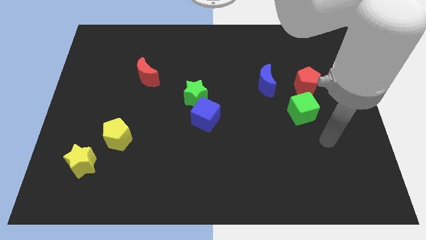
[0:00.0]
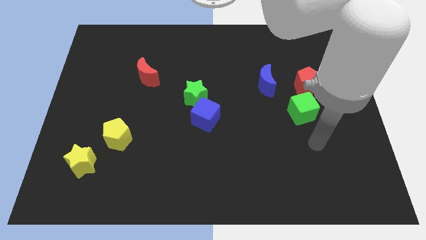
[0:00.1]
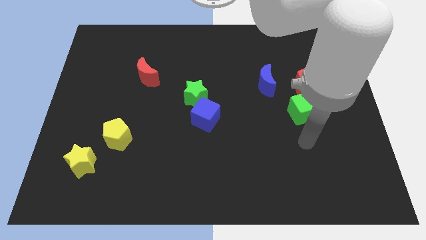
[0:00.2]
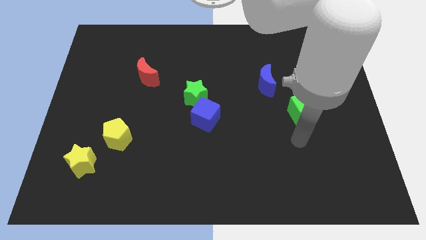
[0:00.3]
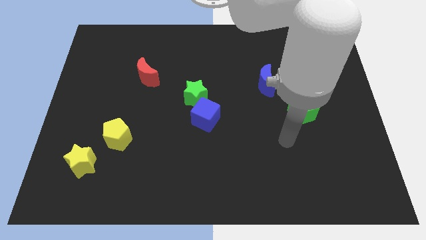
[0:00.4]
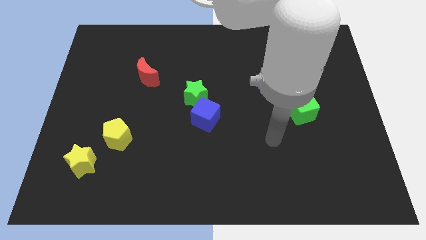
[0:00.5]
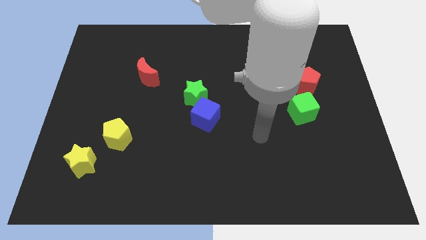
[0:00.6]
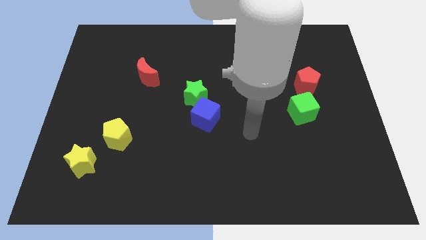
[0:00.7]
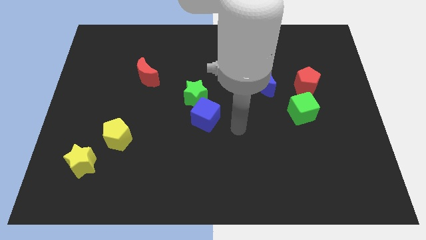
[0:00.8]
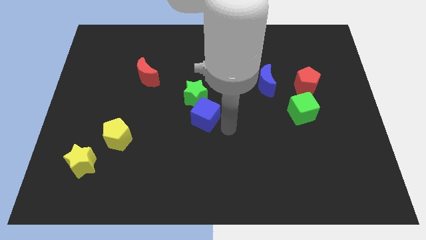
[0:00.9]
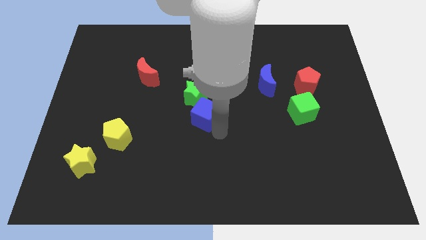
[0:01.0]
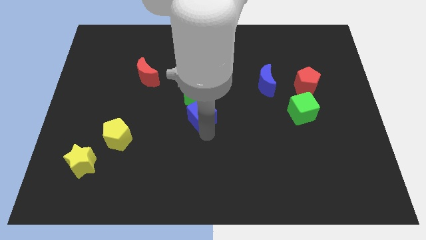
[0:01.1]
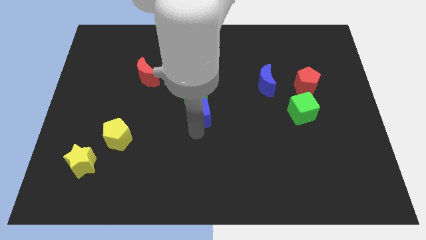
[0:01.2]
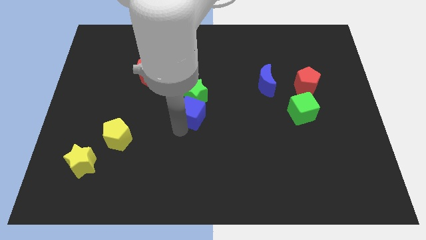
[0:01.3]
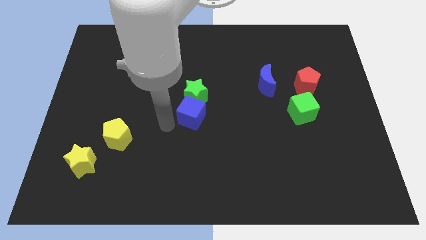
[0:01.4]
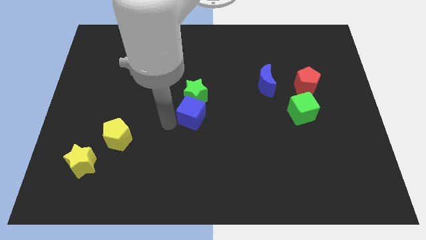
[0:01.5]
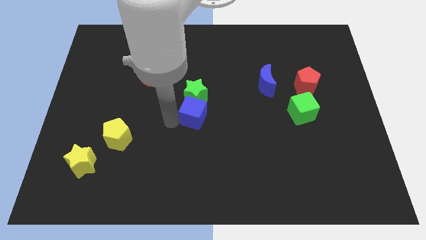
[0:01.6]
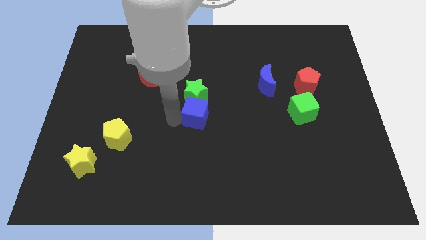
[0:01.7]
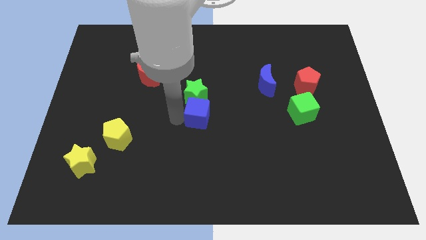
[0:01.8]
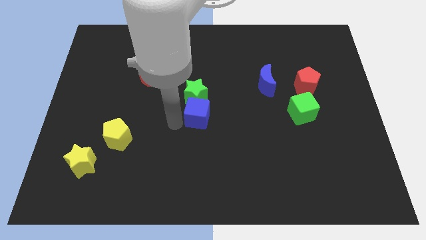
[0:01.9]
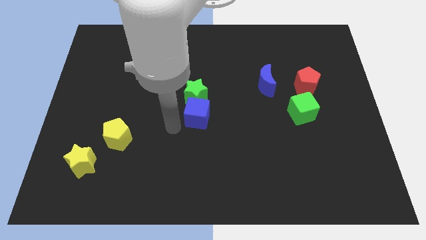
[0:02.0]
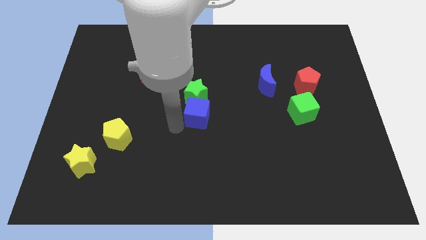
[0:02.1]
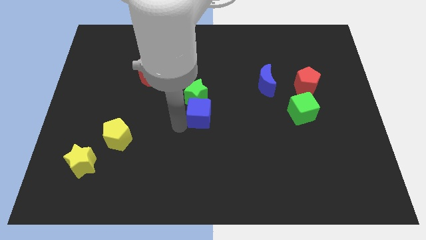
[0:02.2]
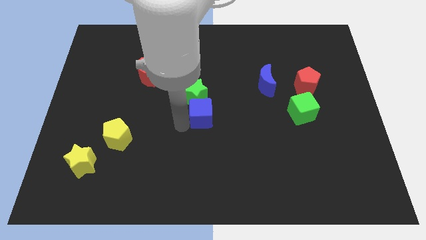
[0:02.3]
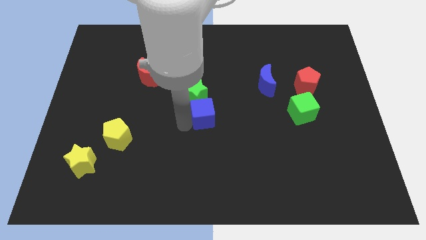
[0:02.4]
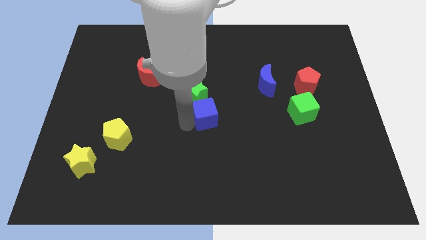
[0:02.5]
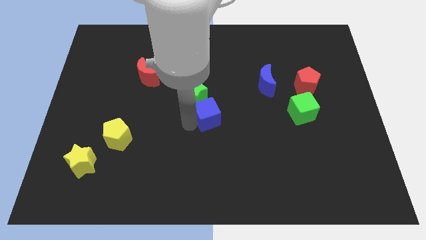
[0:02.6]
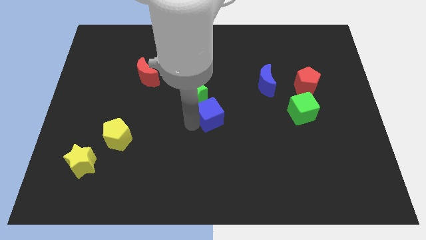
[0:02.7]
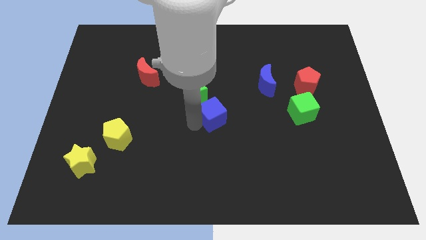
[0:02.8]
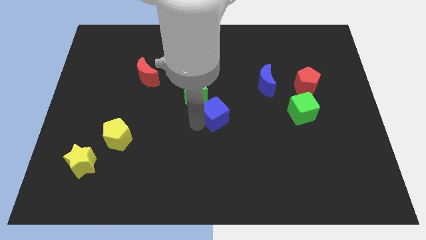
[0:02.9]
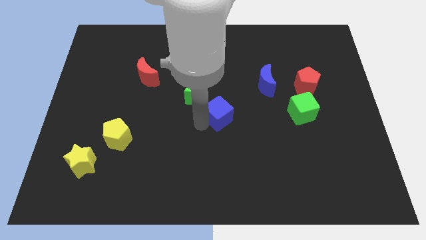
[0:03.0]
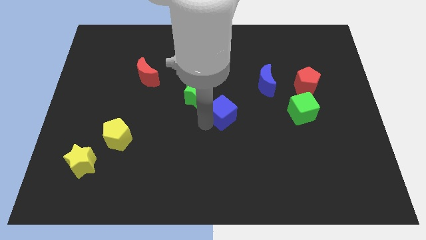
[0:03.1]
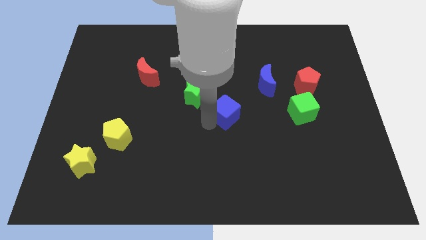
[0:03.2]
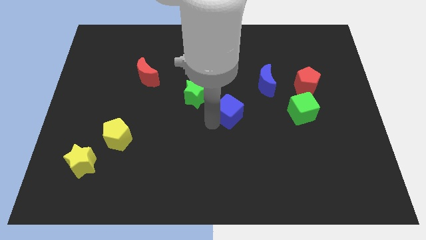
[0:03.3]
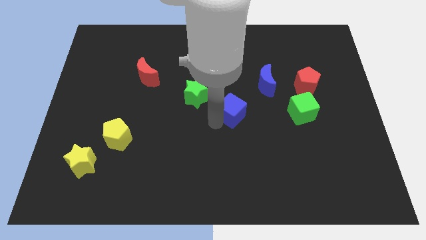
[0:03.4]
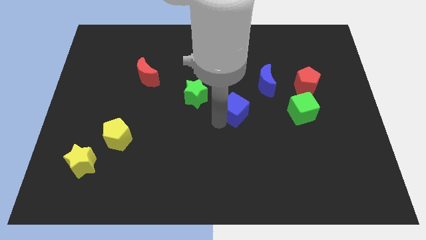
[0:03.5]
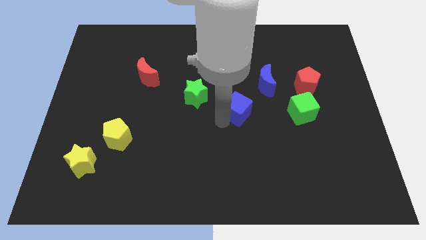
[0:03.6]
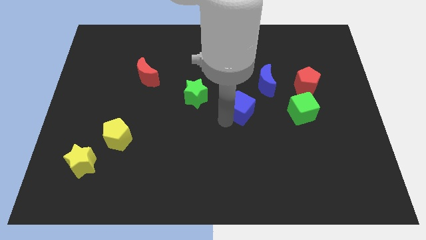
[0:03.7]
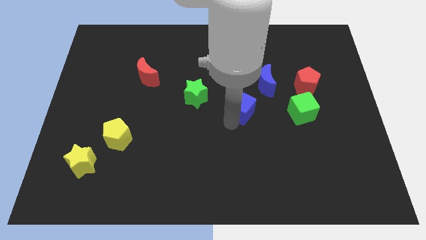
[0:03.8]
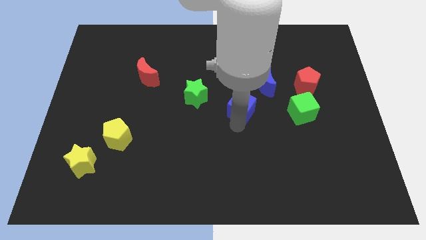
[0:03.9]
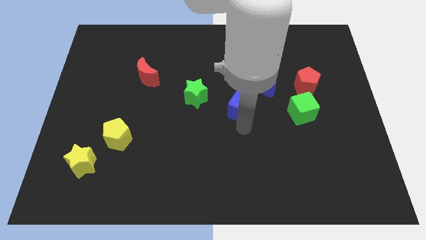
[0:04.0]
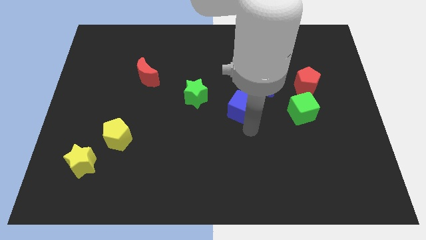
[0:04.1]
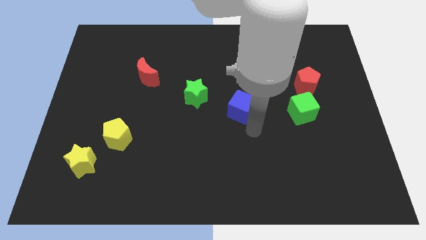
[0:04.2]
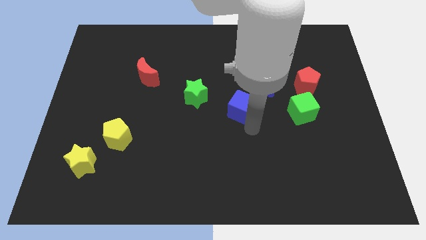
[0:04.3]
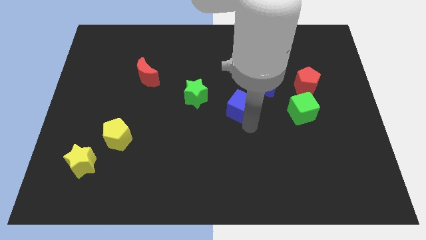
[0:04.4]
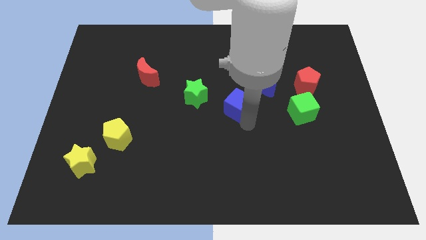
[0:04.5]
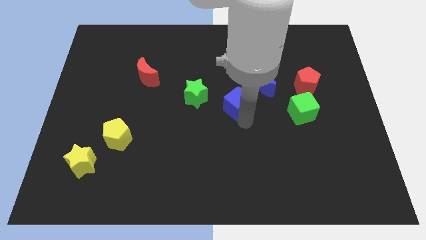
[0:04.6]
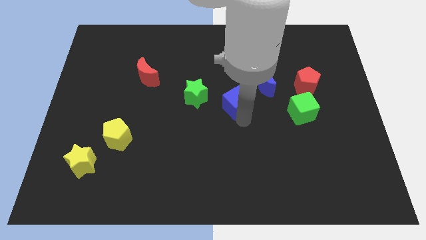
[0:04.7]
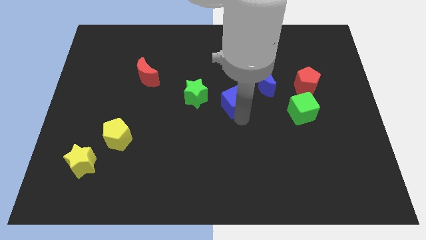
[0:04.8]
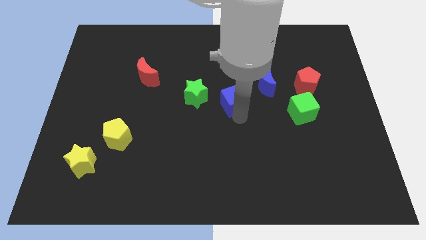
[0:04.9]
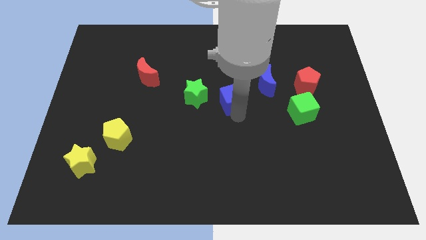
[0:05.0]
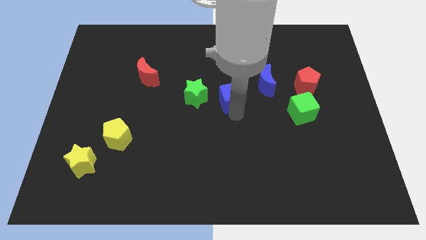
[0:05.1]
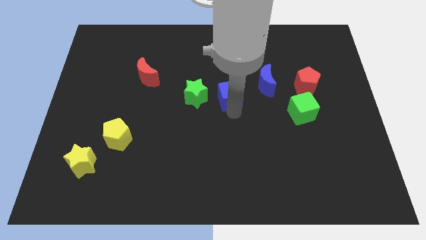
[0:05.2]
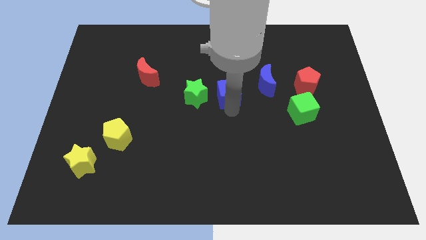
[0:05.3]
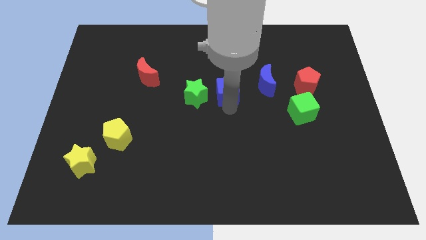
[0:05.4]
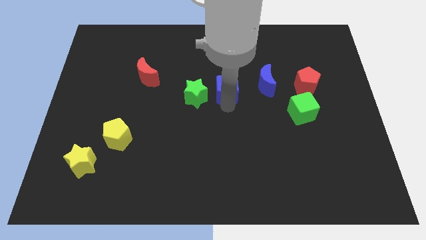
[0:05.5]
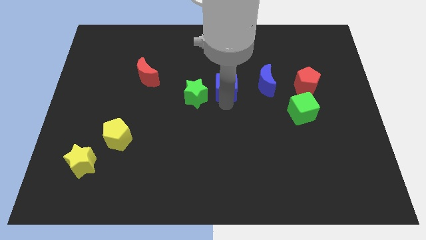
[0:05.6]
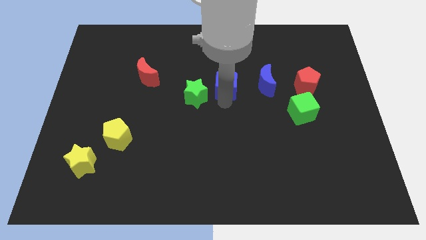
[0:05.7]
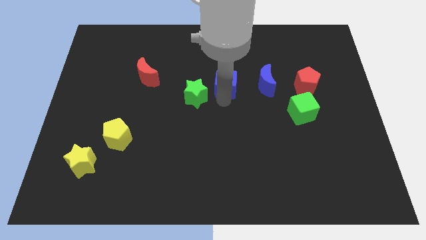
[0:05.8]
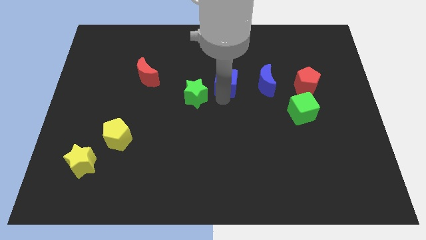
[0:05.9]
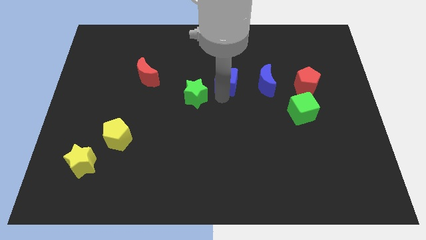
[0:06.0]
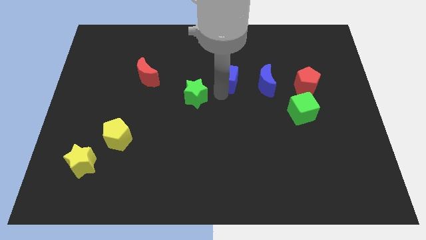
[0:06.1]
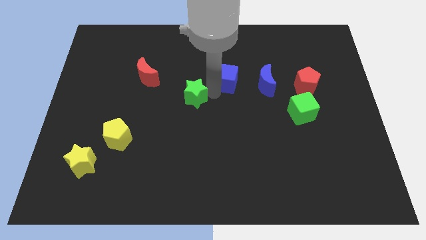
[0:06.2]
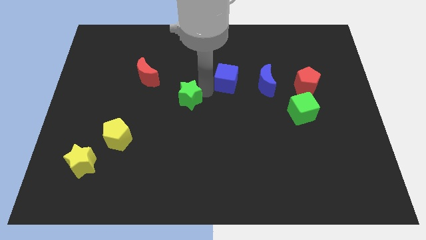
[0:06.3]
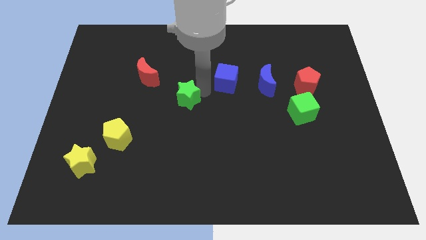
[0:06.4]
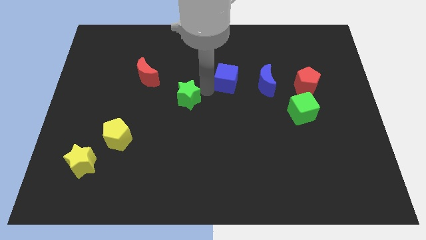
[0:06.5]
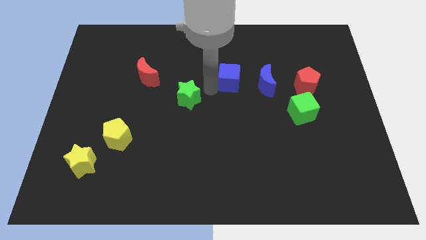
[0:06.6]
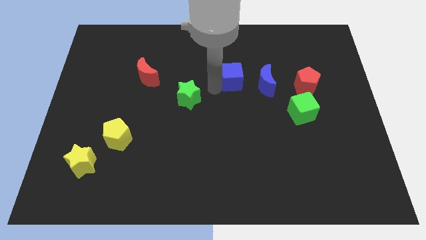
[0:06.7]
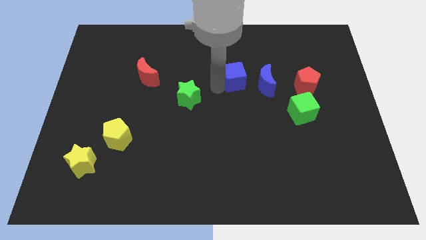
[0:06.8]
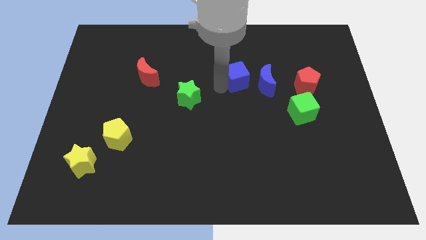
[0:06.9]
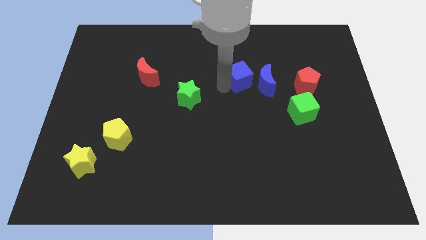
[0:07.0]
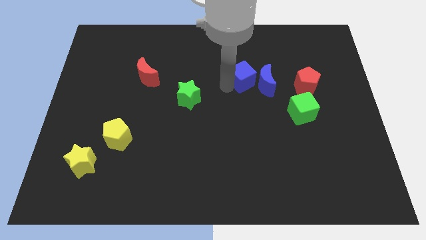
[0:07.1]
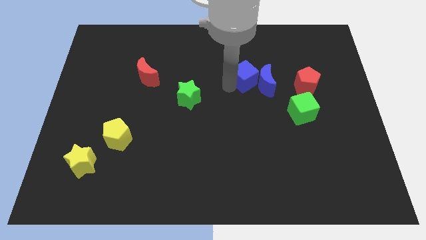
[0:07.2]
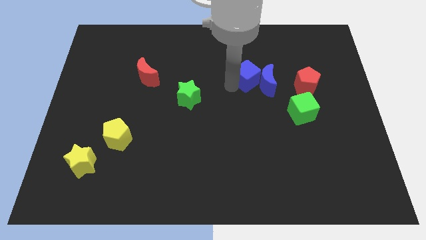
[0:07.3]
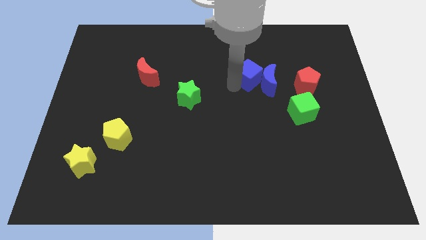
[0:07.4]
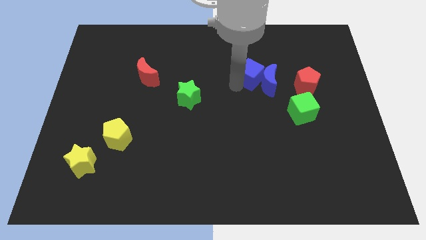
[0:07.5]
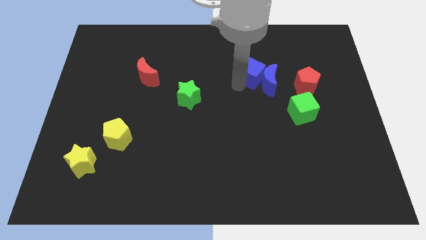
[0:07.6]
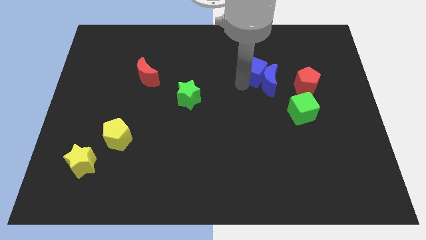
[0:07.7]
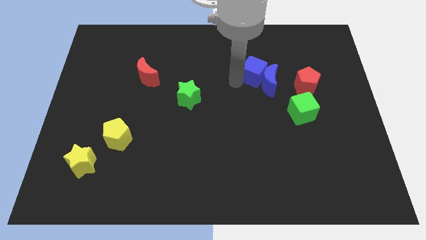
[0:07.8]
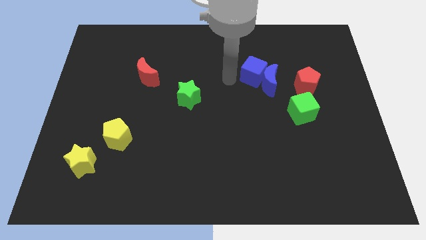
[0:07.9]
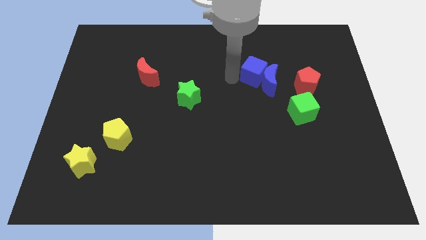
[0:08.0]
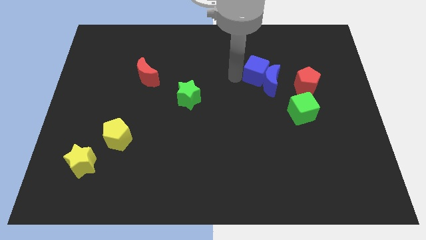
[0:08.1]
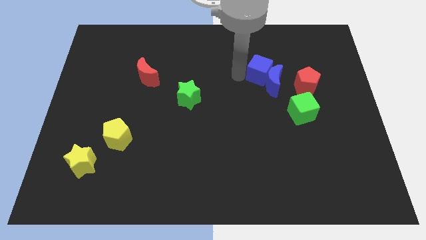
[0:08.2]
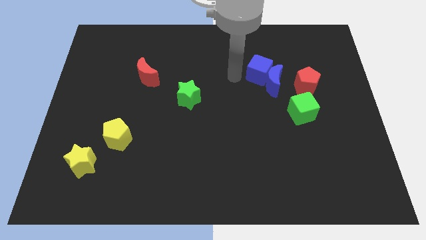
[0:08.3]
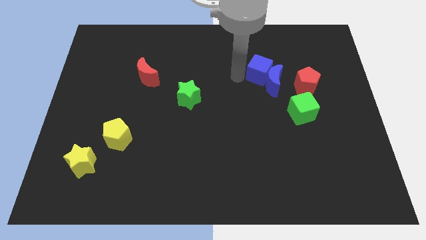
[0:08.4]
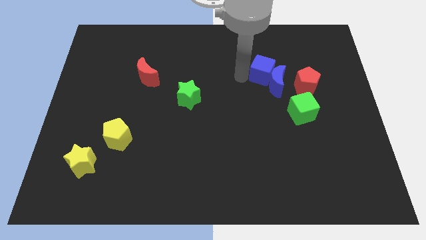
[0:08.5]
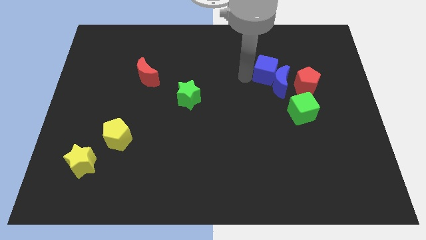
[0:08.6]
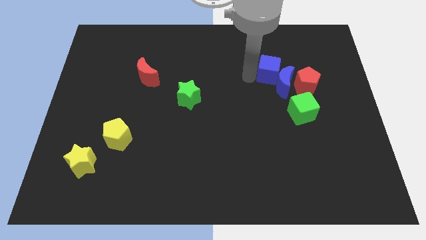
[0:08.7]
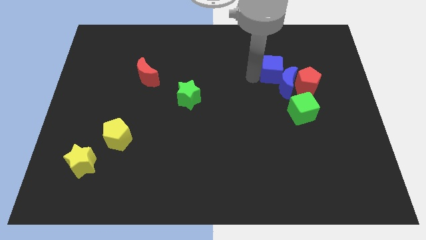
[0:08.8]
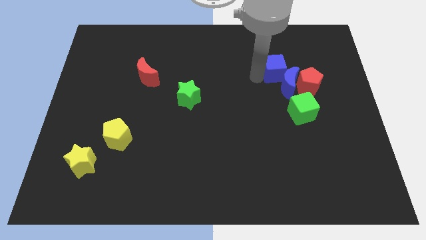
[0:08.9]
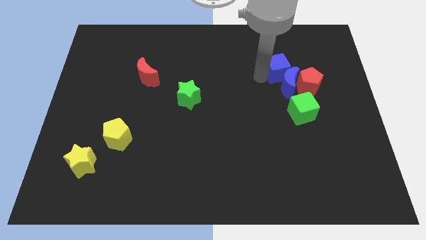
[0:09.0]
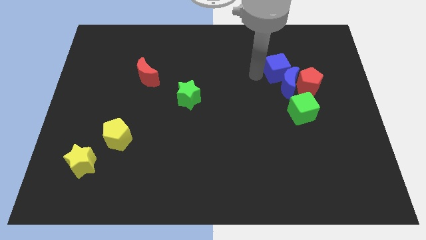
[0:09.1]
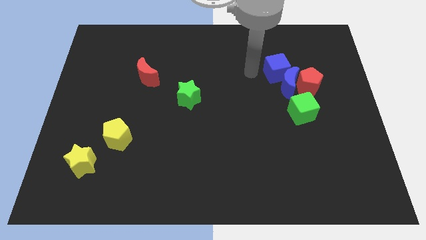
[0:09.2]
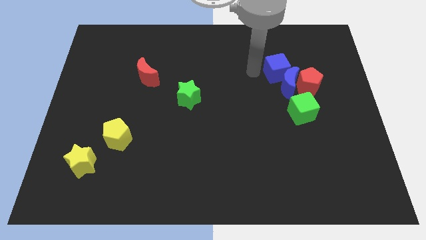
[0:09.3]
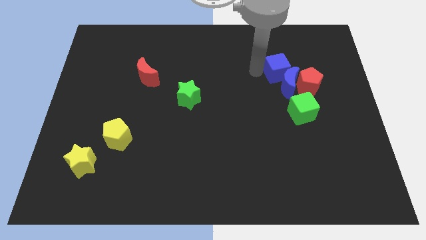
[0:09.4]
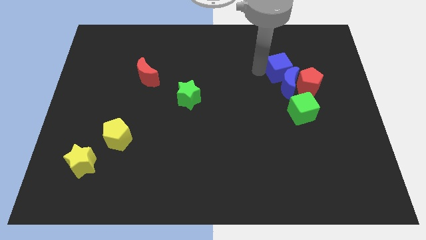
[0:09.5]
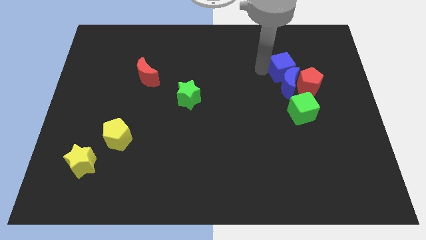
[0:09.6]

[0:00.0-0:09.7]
move the blue cube to the top right of the blue moon
